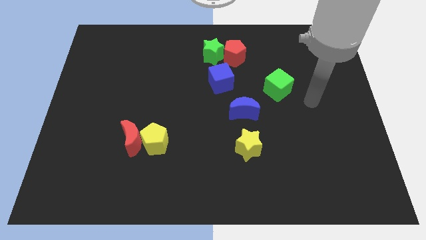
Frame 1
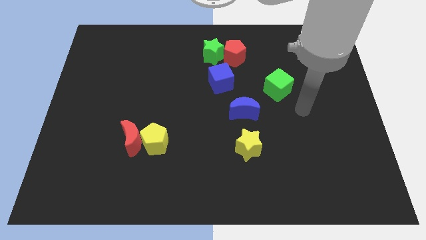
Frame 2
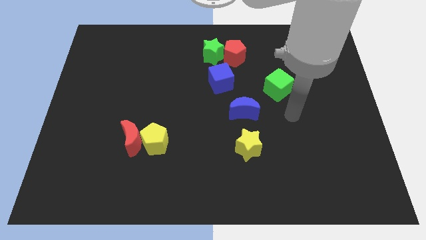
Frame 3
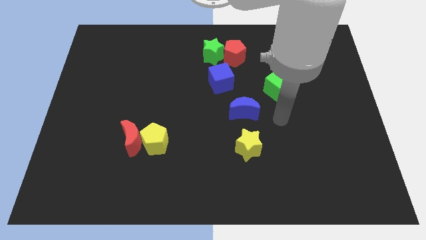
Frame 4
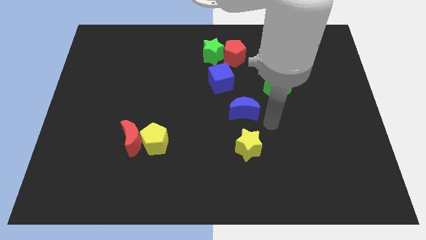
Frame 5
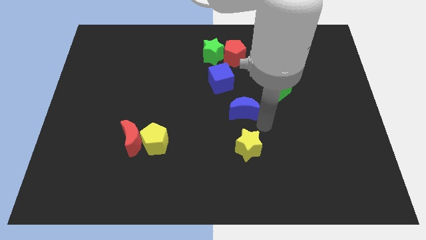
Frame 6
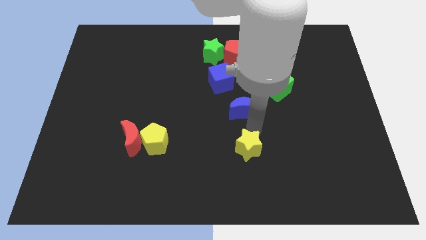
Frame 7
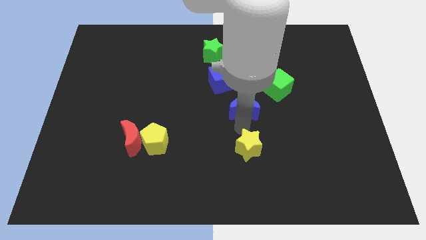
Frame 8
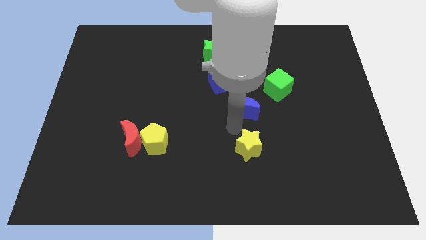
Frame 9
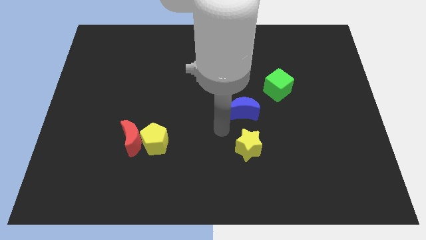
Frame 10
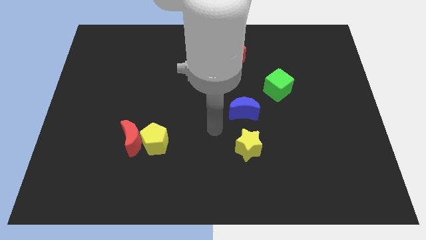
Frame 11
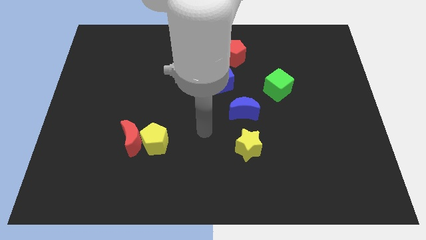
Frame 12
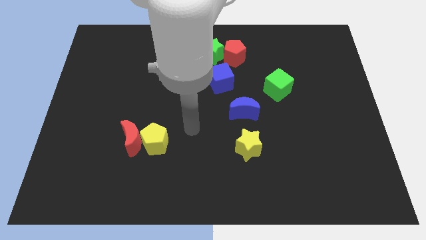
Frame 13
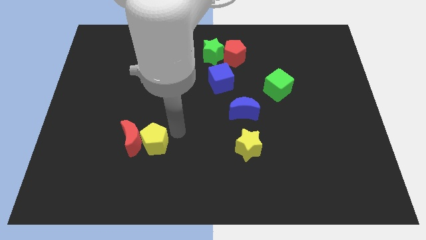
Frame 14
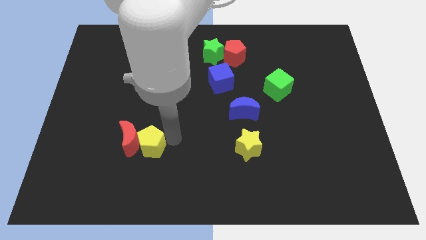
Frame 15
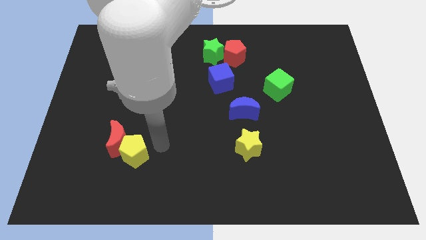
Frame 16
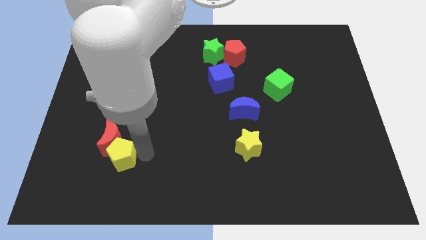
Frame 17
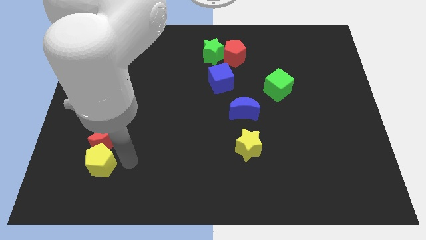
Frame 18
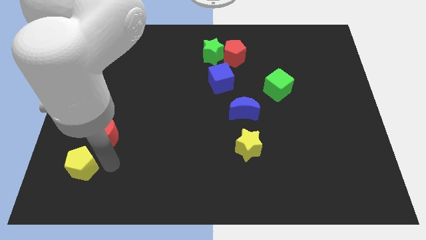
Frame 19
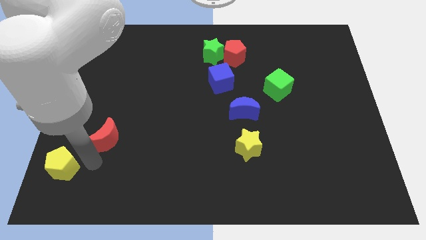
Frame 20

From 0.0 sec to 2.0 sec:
move the red moon away from the yellow pentagon

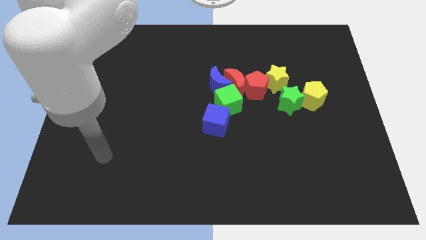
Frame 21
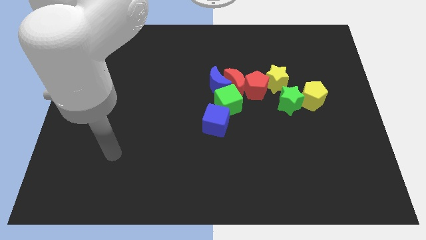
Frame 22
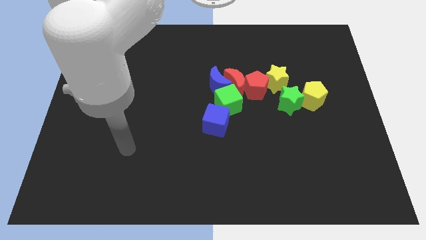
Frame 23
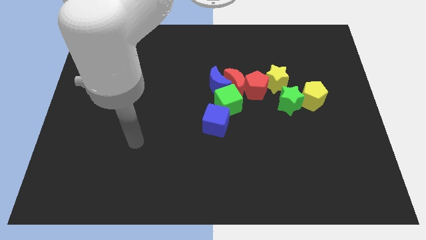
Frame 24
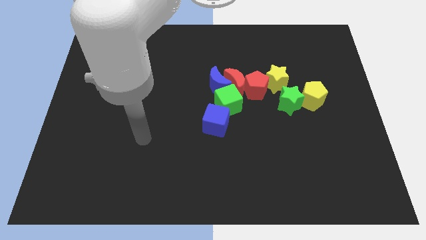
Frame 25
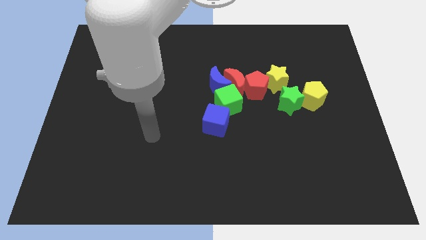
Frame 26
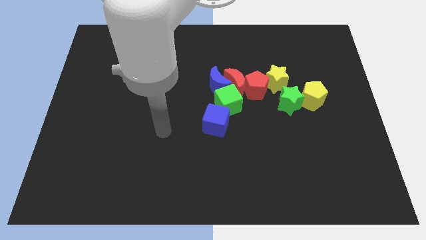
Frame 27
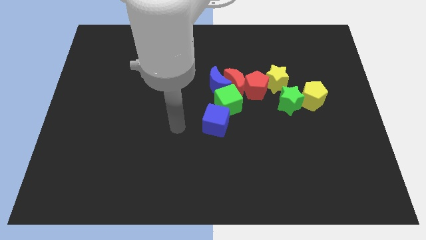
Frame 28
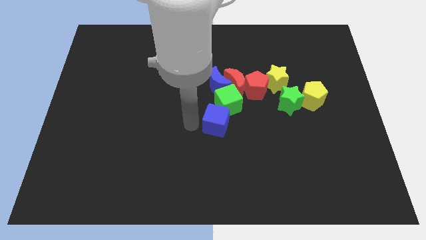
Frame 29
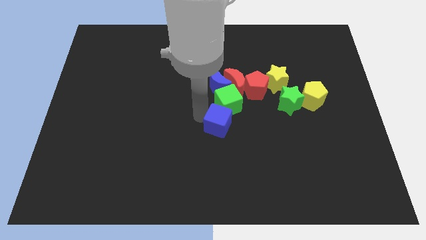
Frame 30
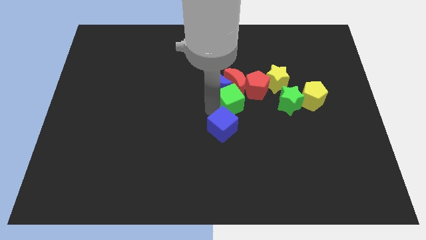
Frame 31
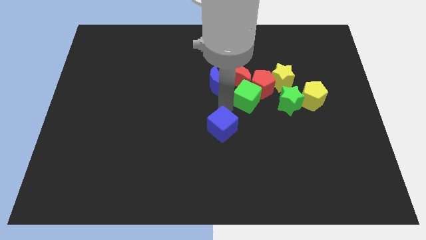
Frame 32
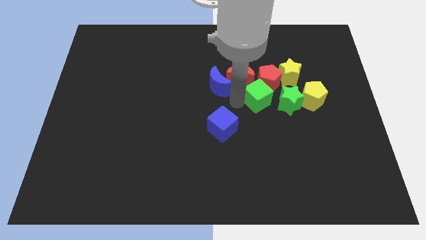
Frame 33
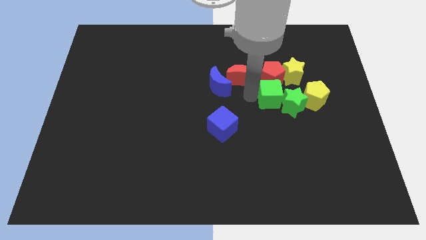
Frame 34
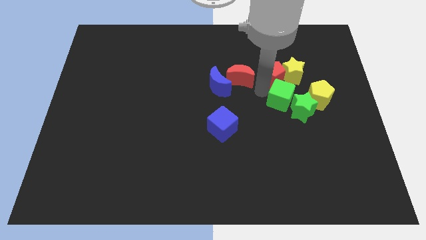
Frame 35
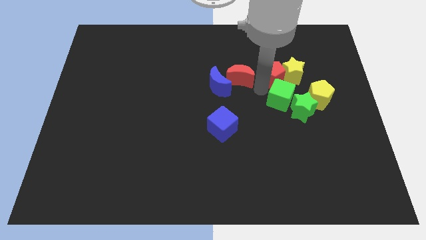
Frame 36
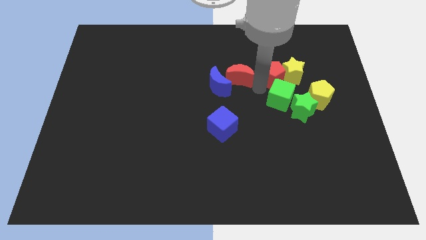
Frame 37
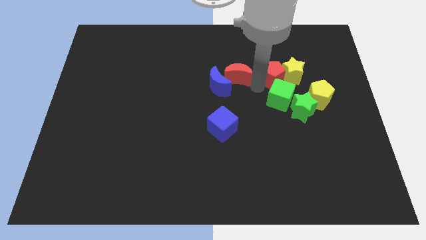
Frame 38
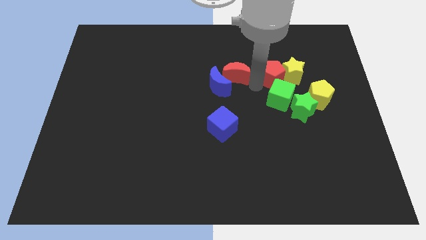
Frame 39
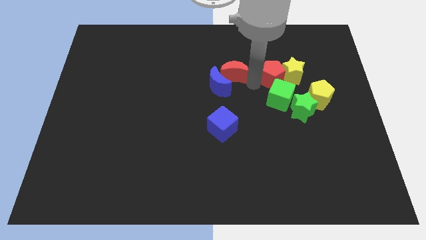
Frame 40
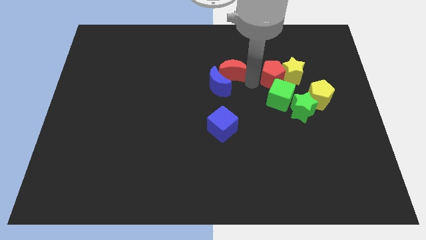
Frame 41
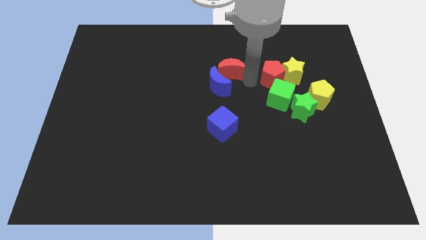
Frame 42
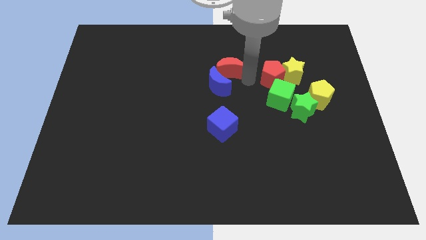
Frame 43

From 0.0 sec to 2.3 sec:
separate the red moon from the group of blocks

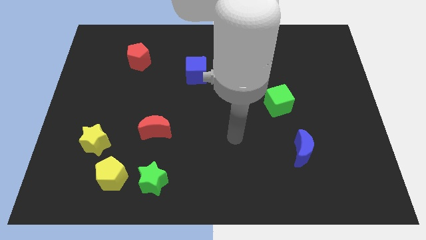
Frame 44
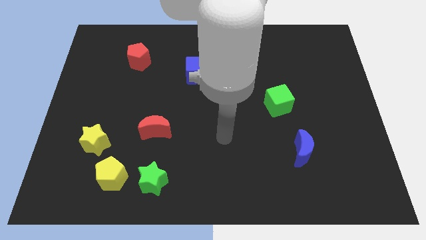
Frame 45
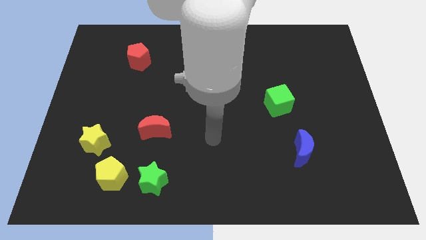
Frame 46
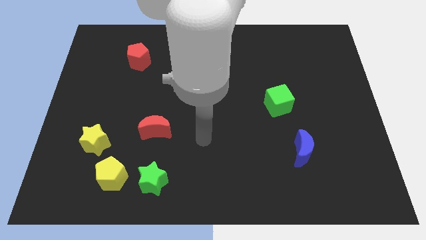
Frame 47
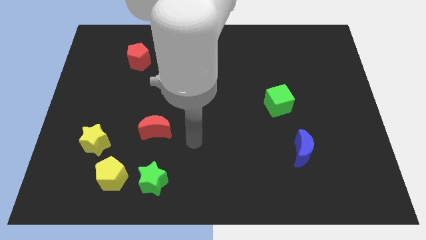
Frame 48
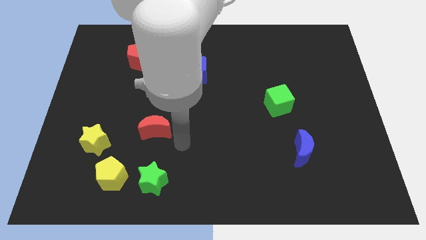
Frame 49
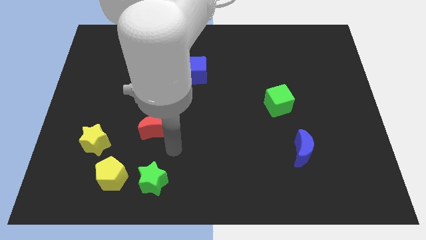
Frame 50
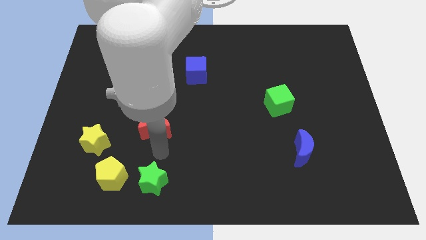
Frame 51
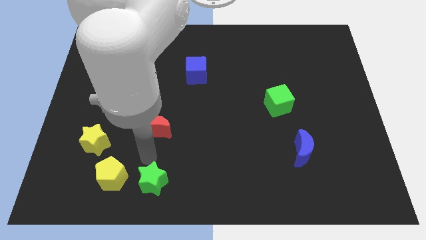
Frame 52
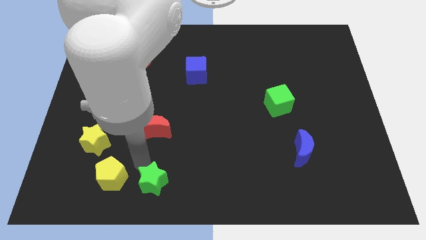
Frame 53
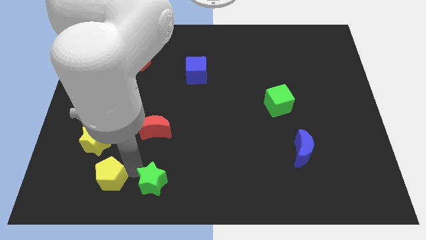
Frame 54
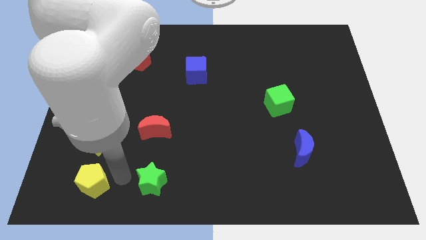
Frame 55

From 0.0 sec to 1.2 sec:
separate the green star from the yellow pentagon

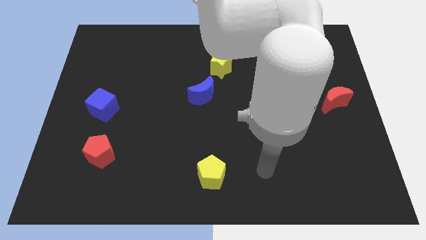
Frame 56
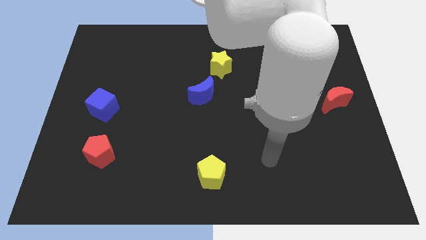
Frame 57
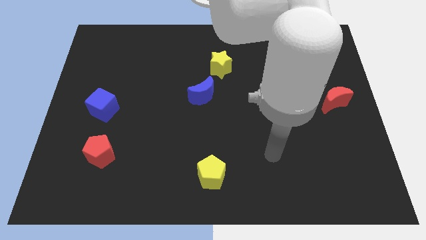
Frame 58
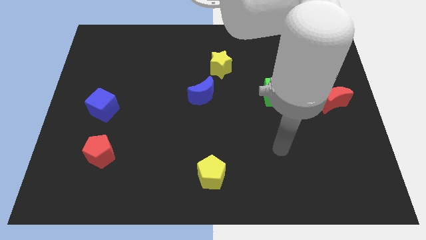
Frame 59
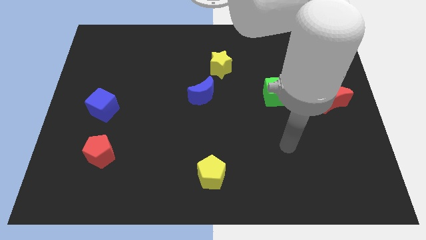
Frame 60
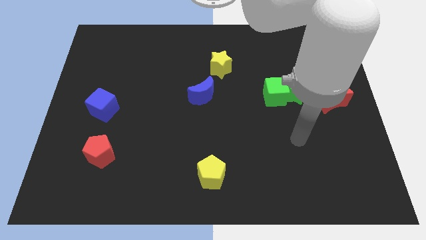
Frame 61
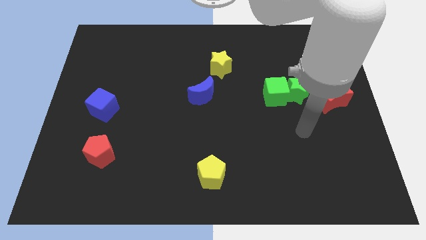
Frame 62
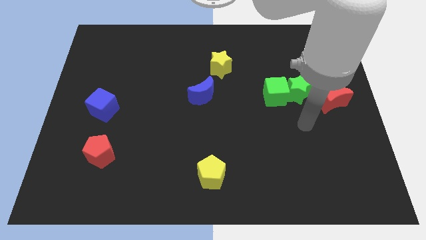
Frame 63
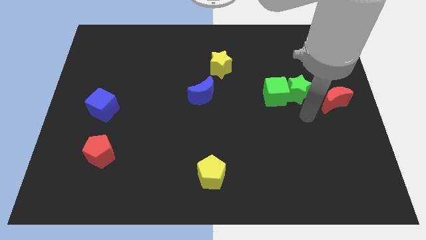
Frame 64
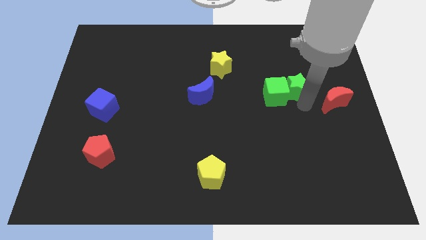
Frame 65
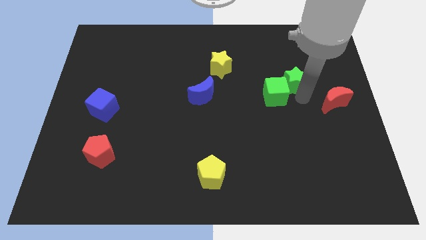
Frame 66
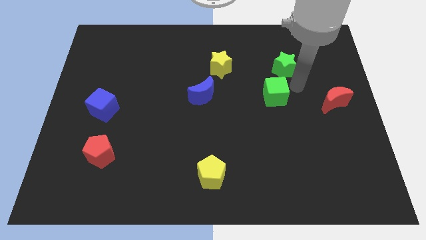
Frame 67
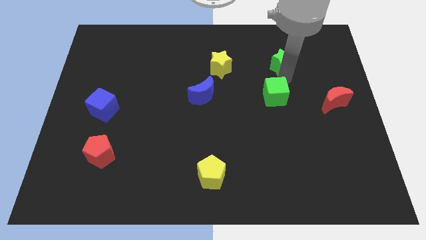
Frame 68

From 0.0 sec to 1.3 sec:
move the green cube away from the green star

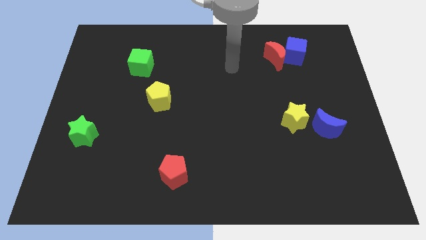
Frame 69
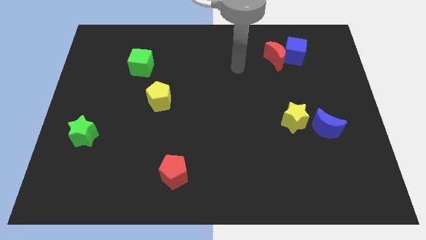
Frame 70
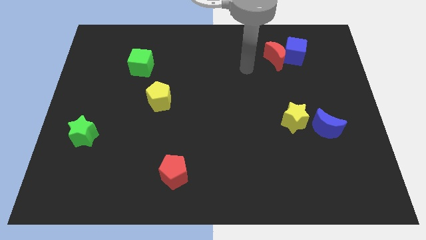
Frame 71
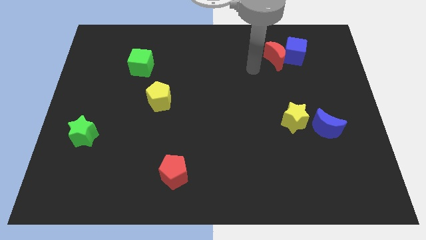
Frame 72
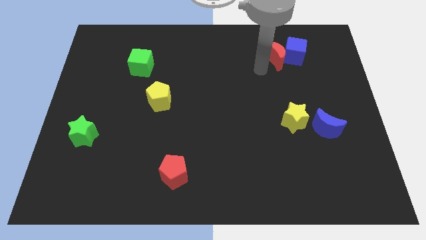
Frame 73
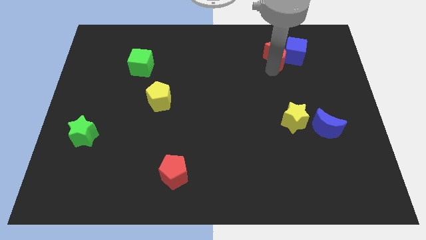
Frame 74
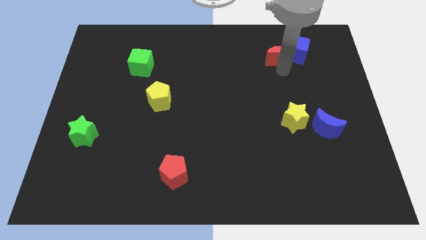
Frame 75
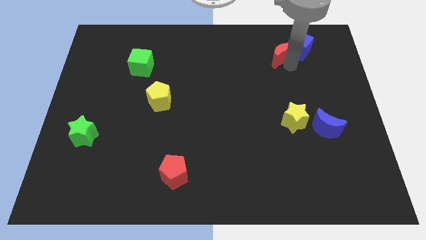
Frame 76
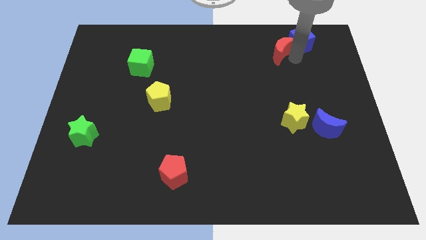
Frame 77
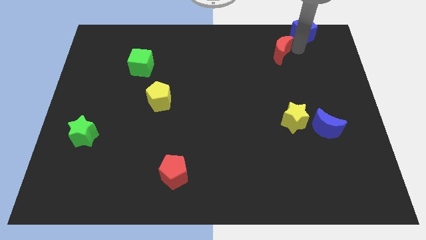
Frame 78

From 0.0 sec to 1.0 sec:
separate the red moon from the blue cube

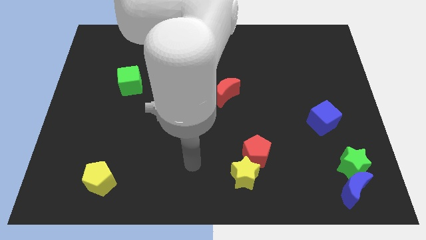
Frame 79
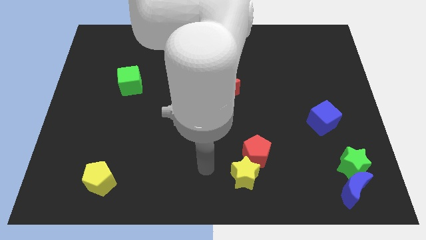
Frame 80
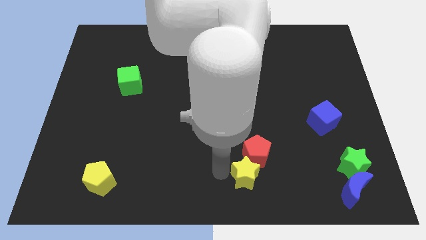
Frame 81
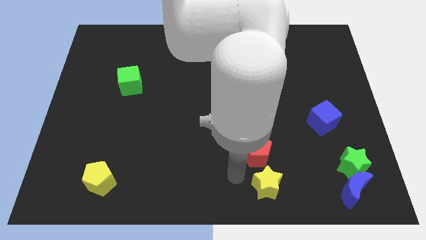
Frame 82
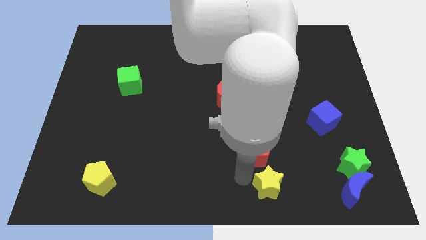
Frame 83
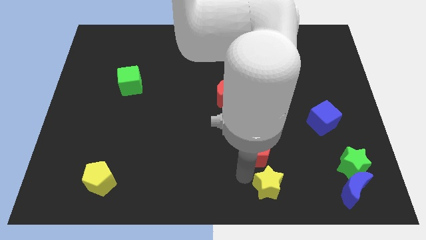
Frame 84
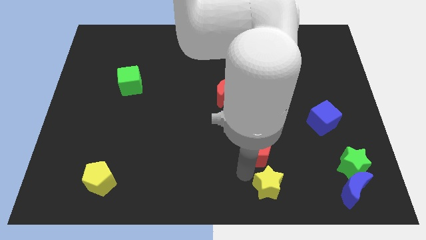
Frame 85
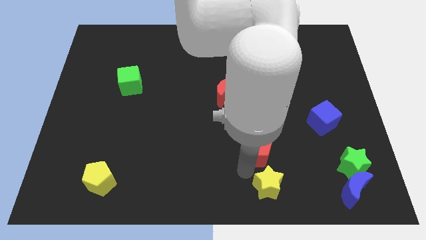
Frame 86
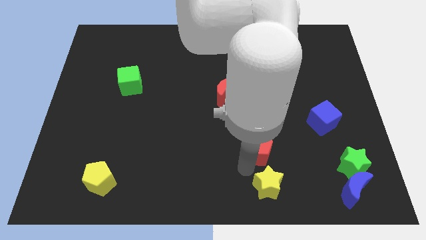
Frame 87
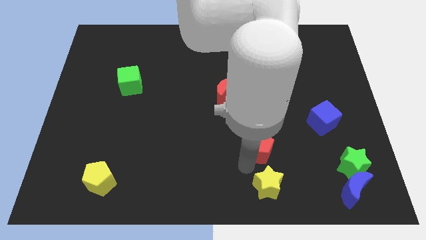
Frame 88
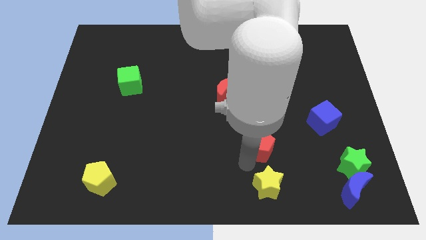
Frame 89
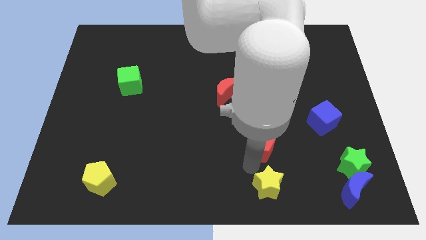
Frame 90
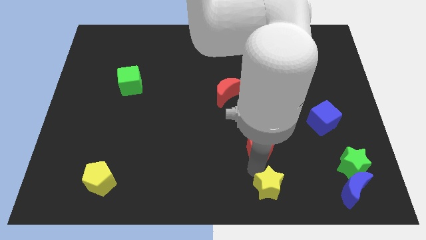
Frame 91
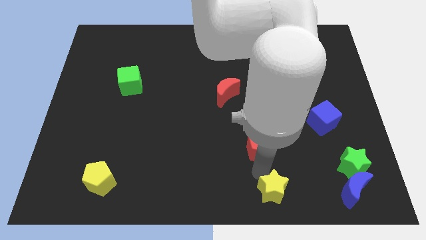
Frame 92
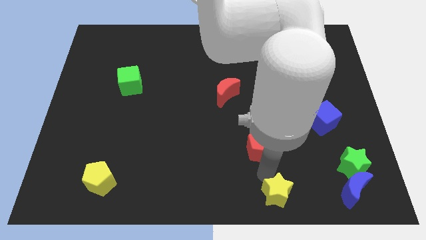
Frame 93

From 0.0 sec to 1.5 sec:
separate the red pentagon from the yellow star
